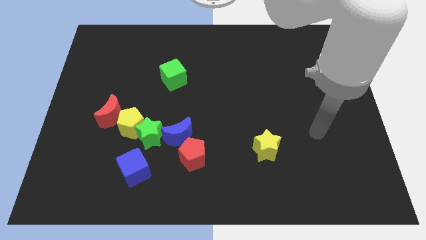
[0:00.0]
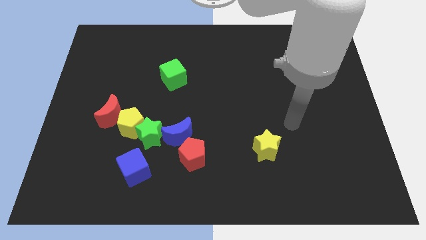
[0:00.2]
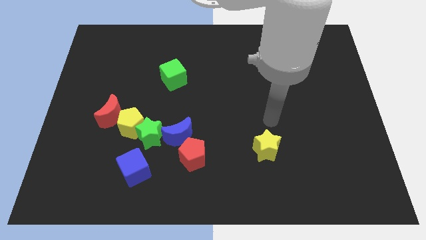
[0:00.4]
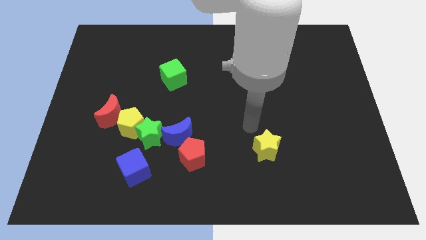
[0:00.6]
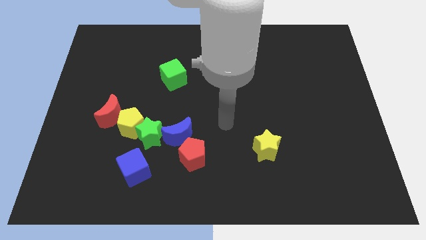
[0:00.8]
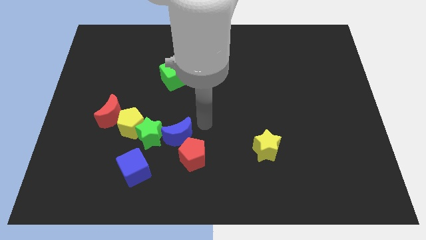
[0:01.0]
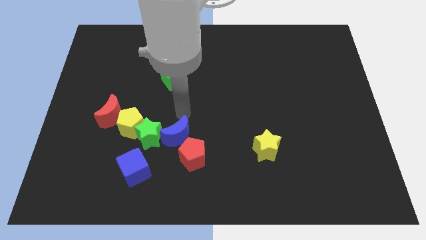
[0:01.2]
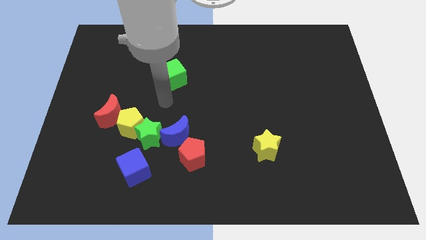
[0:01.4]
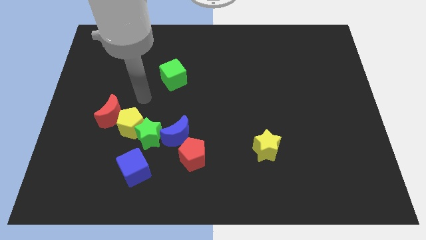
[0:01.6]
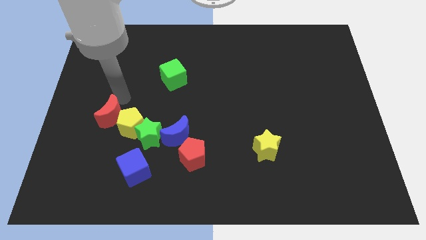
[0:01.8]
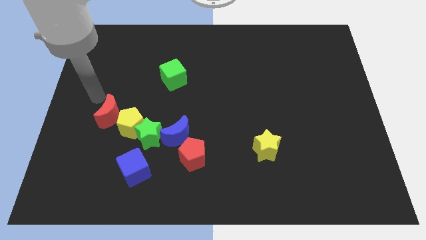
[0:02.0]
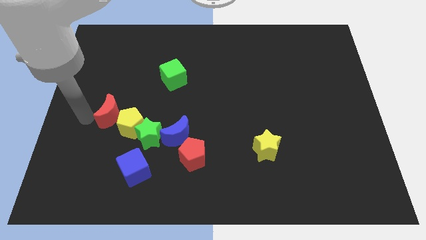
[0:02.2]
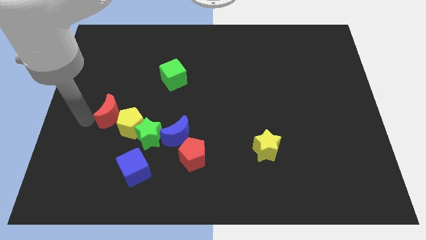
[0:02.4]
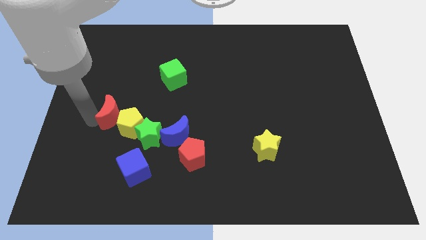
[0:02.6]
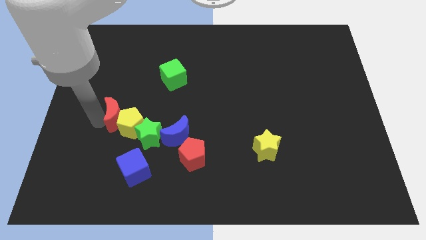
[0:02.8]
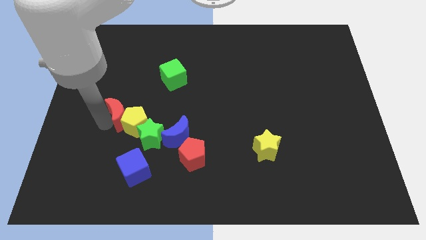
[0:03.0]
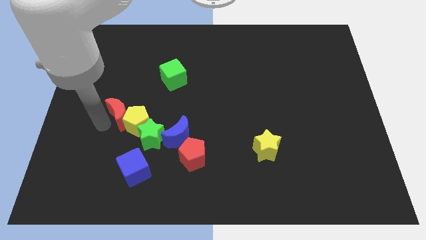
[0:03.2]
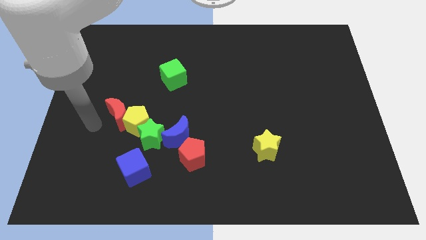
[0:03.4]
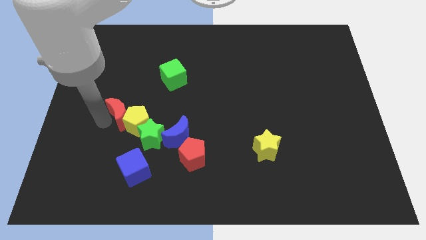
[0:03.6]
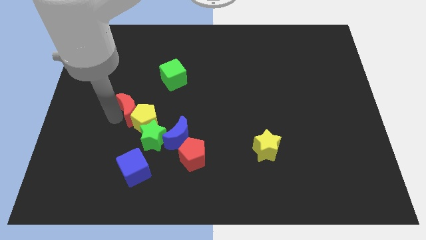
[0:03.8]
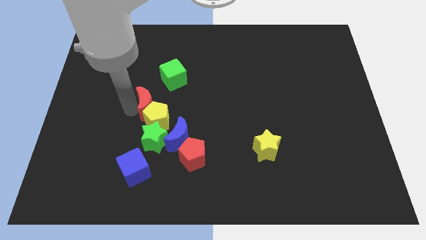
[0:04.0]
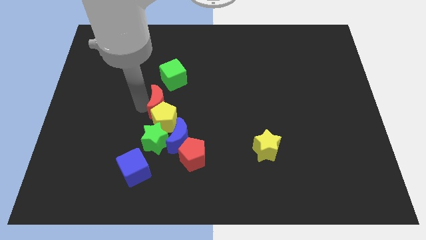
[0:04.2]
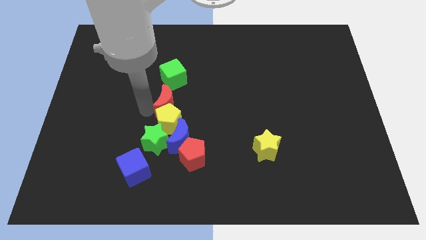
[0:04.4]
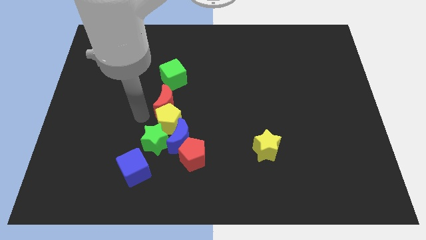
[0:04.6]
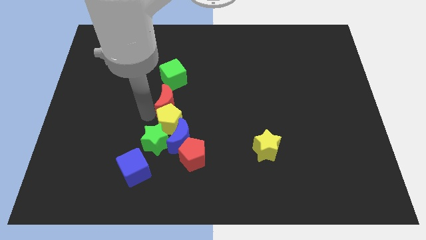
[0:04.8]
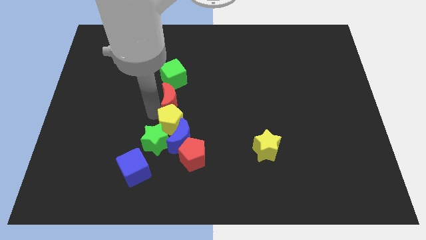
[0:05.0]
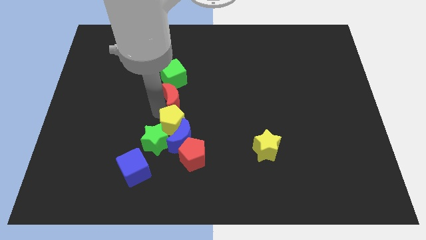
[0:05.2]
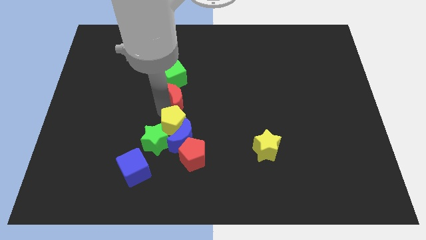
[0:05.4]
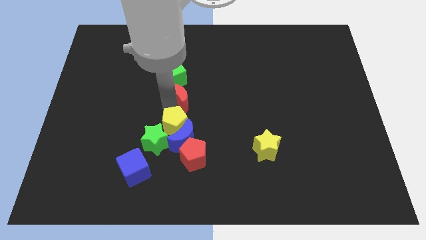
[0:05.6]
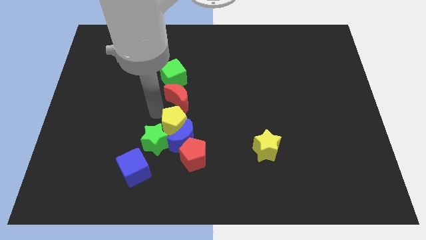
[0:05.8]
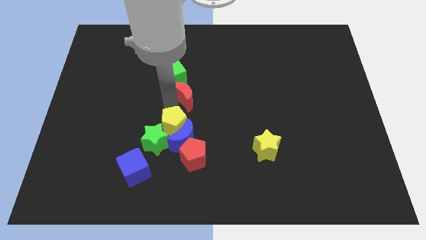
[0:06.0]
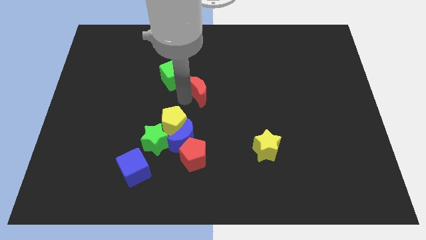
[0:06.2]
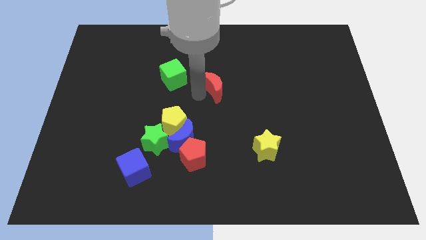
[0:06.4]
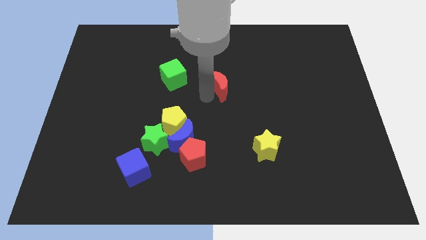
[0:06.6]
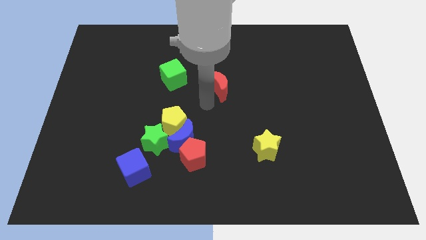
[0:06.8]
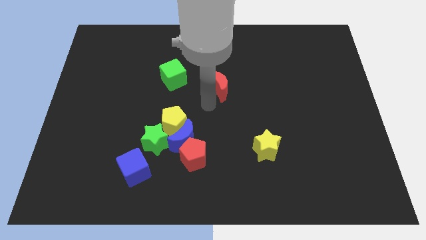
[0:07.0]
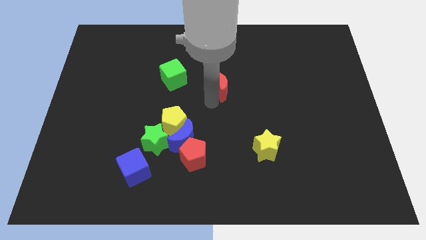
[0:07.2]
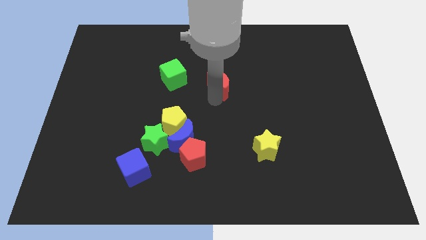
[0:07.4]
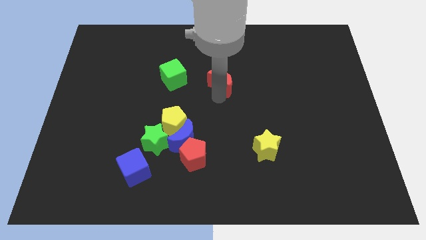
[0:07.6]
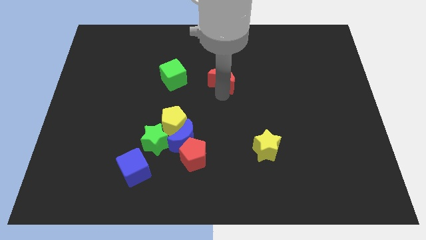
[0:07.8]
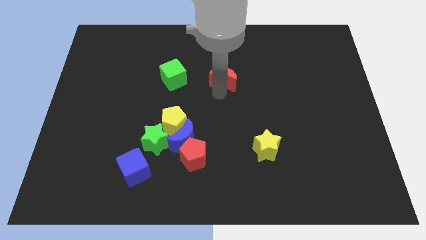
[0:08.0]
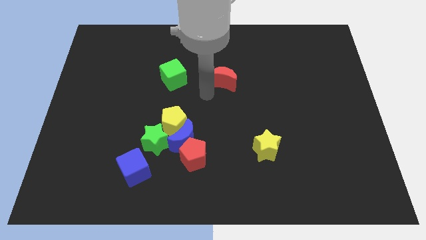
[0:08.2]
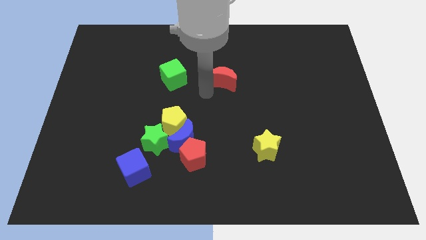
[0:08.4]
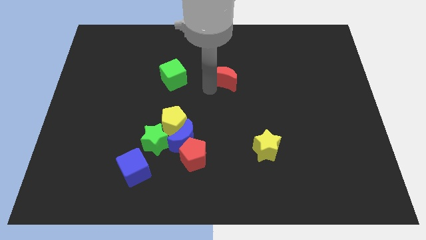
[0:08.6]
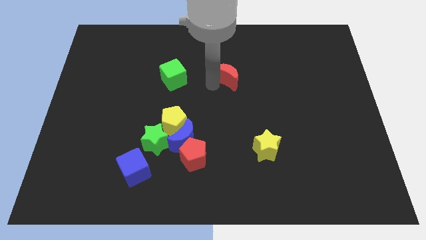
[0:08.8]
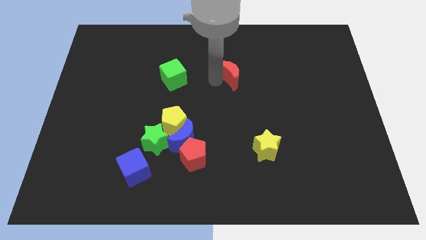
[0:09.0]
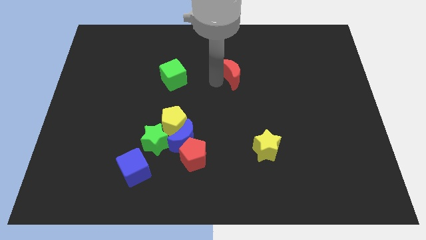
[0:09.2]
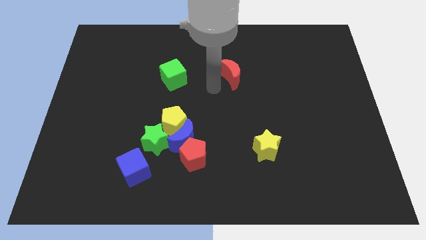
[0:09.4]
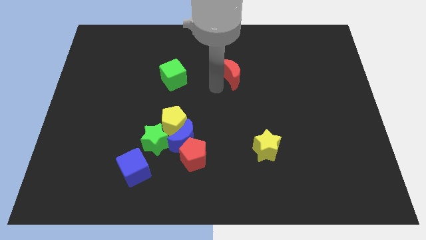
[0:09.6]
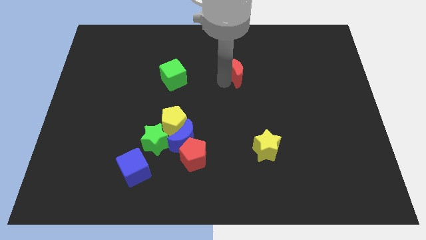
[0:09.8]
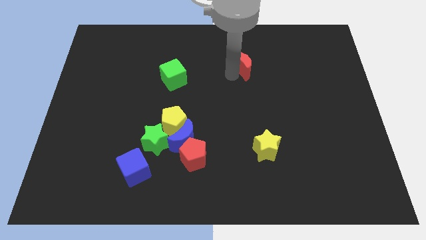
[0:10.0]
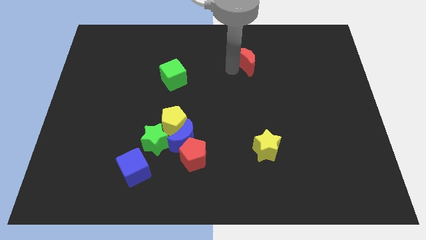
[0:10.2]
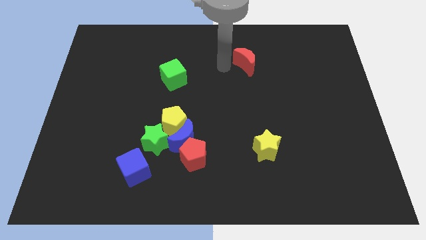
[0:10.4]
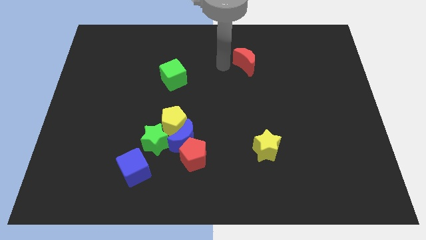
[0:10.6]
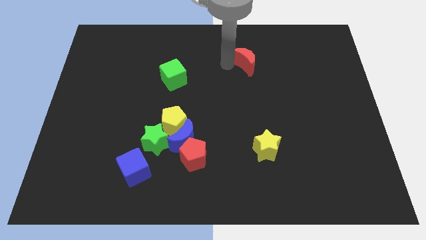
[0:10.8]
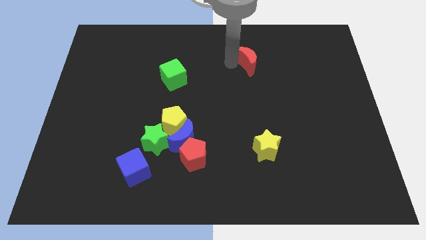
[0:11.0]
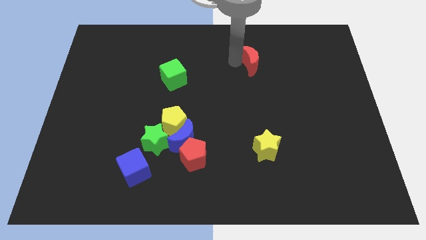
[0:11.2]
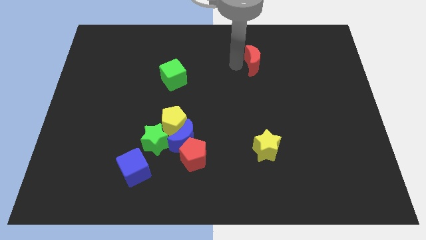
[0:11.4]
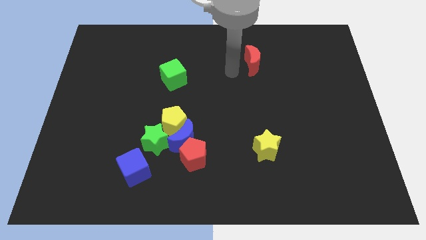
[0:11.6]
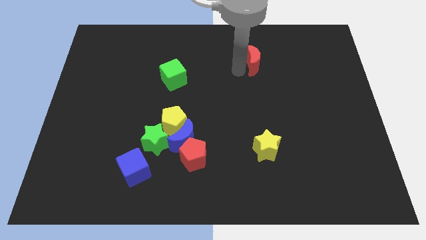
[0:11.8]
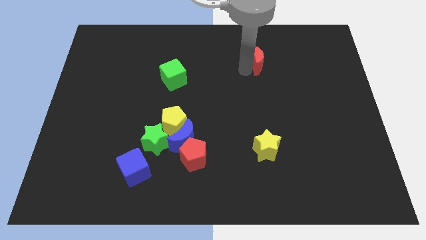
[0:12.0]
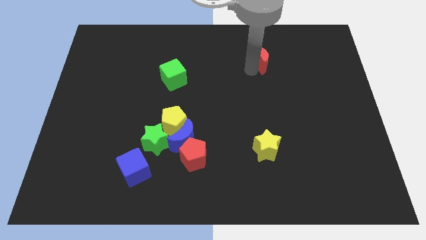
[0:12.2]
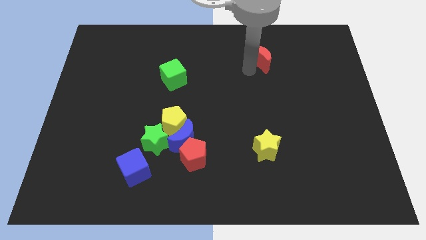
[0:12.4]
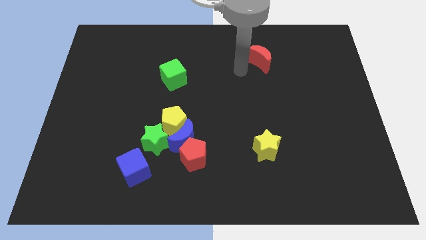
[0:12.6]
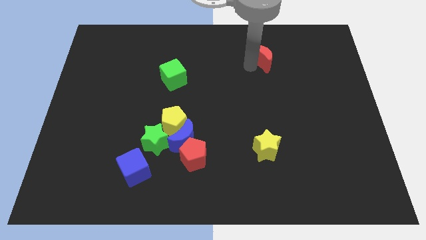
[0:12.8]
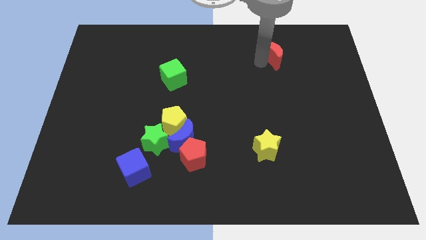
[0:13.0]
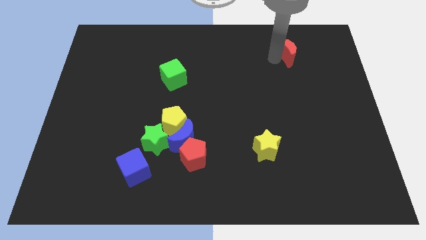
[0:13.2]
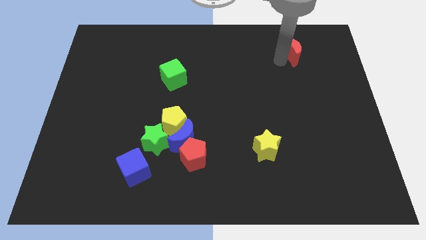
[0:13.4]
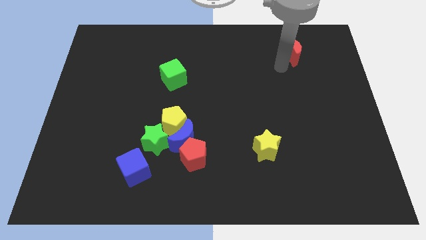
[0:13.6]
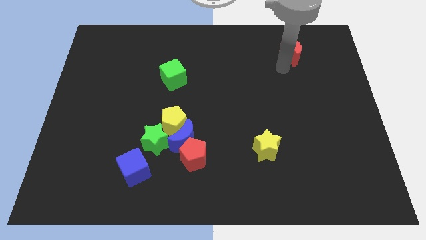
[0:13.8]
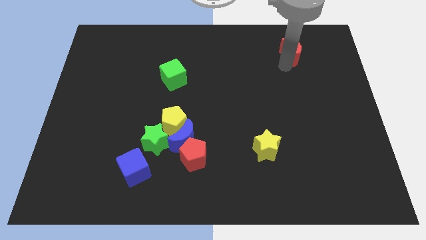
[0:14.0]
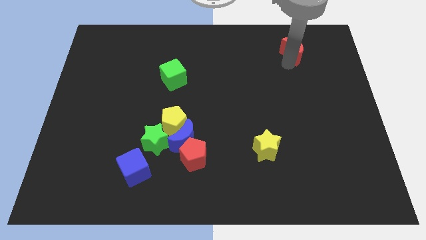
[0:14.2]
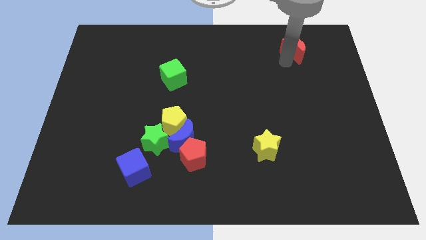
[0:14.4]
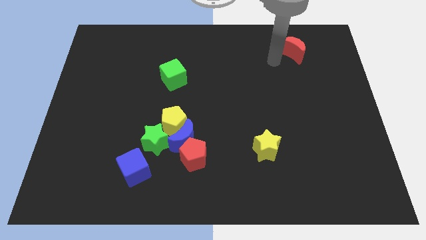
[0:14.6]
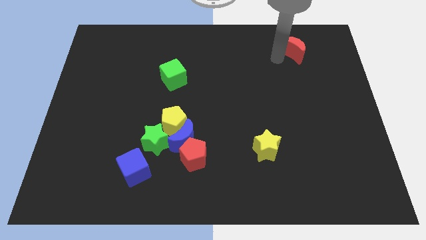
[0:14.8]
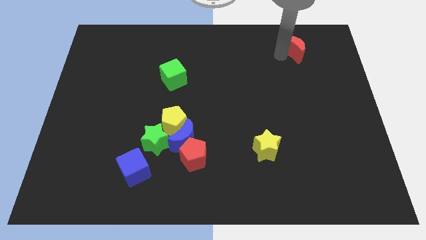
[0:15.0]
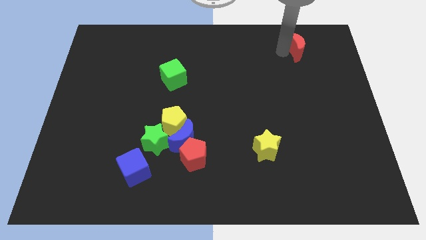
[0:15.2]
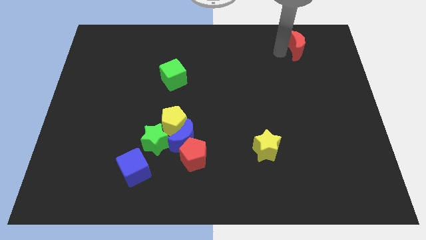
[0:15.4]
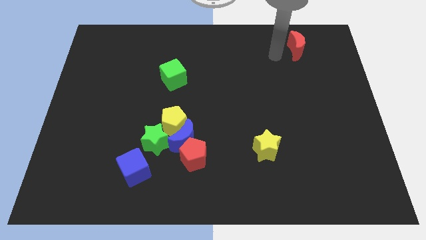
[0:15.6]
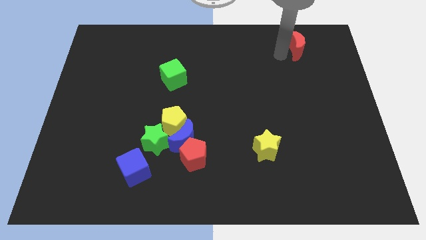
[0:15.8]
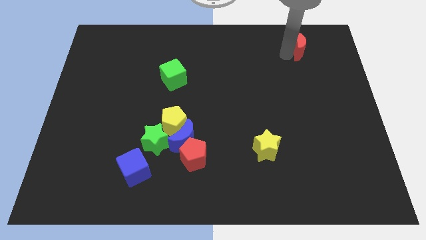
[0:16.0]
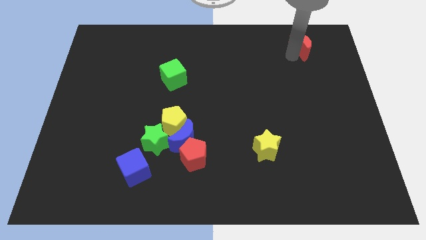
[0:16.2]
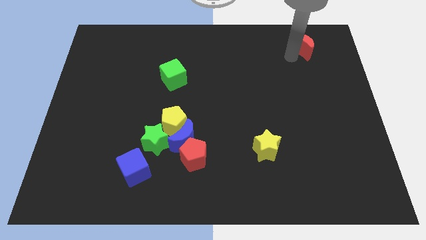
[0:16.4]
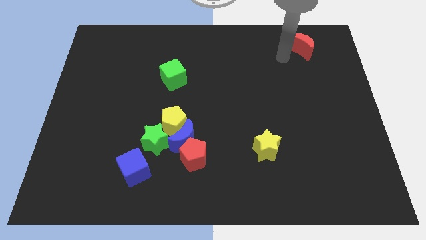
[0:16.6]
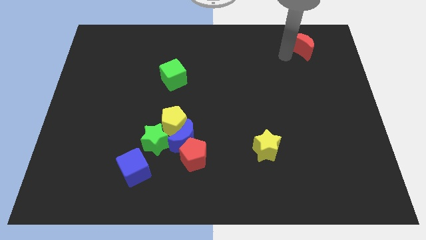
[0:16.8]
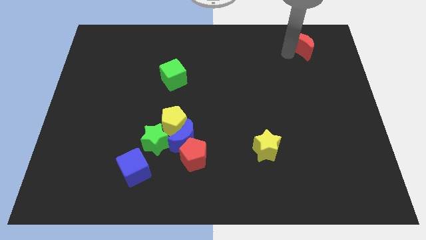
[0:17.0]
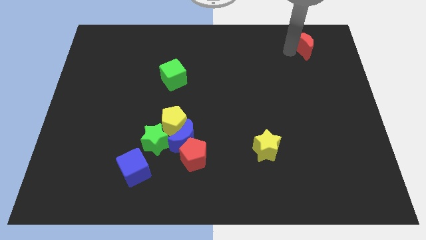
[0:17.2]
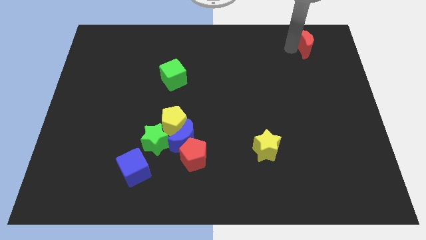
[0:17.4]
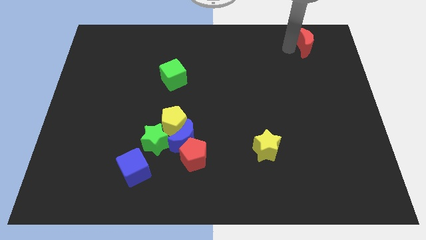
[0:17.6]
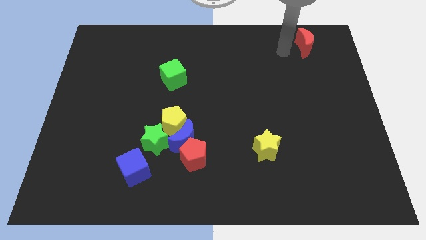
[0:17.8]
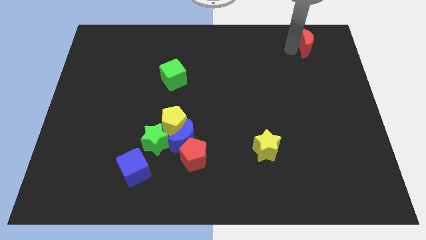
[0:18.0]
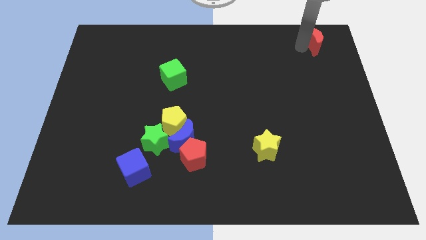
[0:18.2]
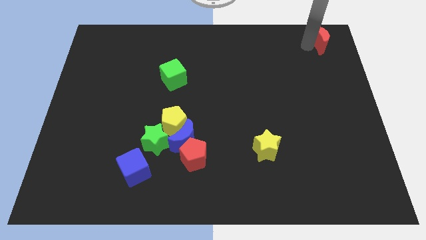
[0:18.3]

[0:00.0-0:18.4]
push the red moon to the top right of the board
